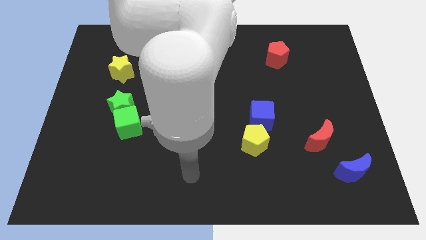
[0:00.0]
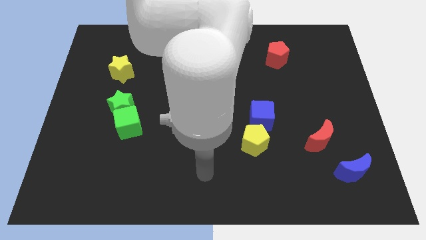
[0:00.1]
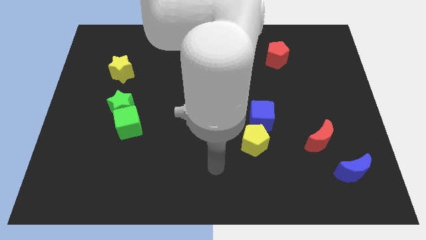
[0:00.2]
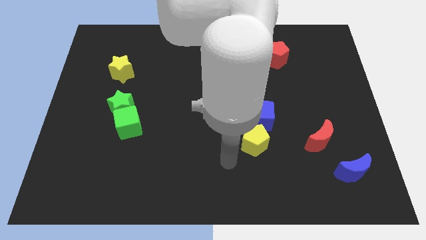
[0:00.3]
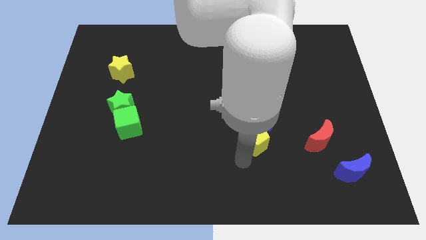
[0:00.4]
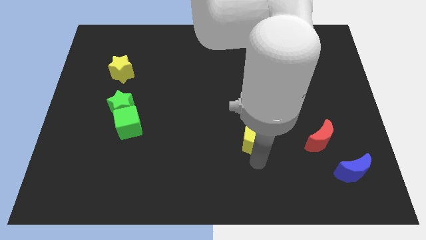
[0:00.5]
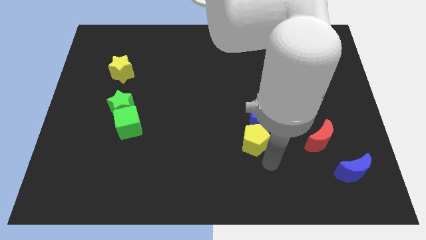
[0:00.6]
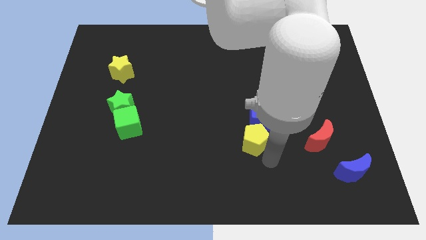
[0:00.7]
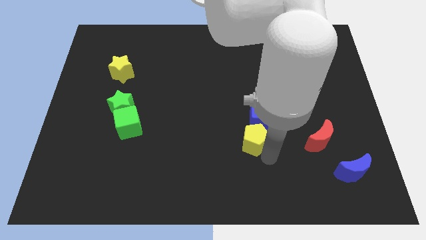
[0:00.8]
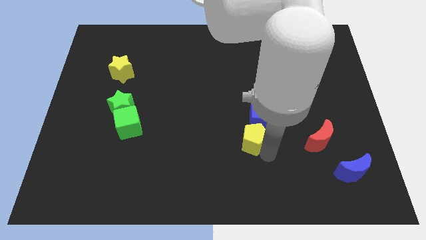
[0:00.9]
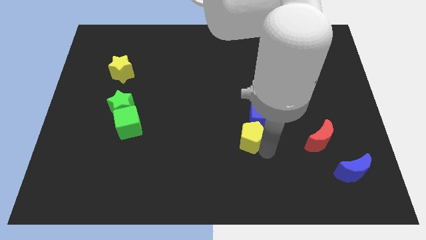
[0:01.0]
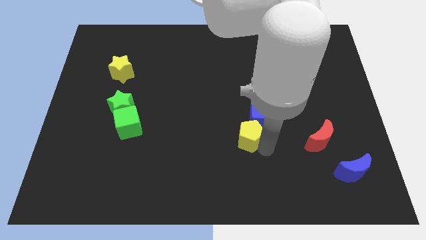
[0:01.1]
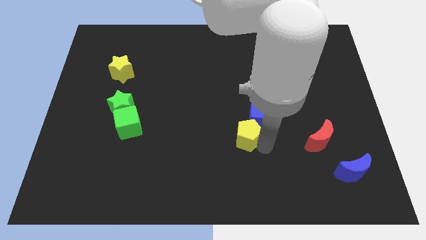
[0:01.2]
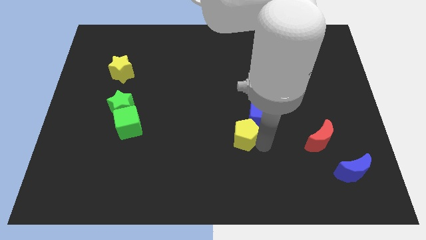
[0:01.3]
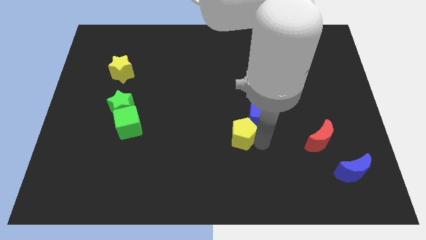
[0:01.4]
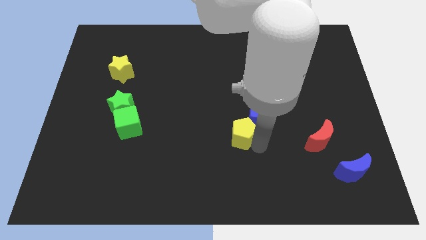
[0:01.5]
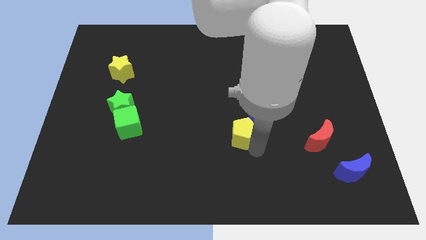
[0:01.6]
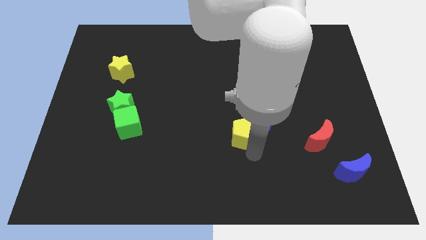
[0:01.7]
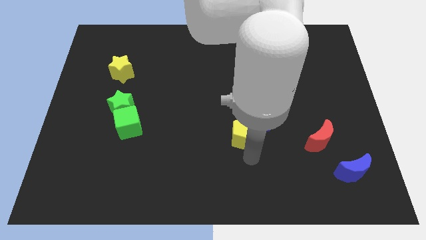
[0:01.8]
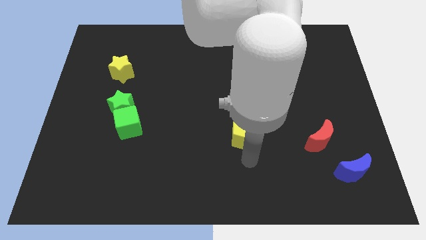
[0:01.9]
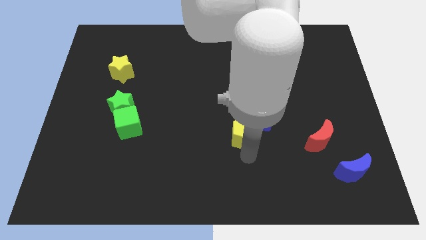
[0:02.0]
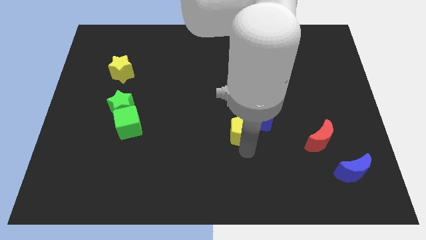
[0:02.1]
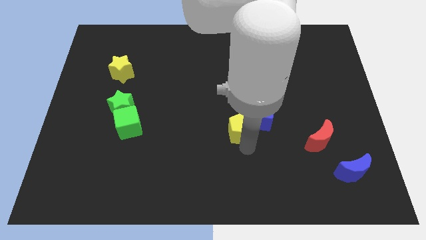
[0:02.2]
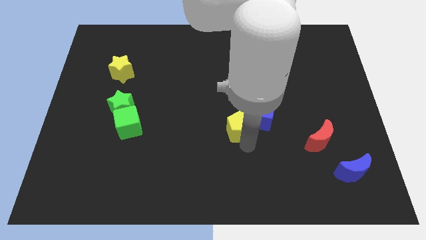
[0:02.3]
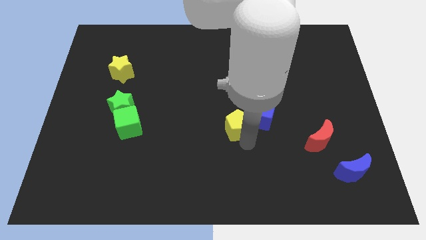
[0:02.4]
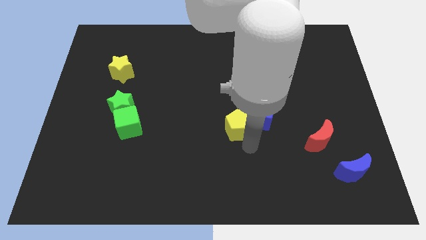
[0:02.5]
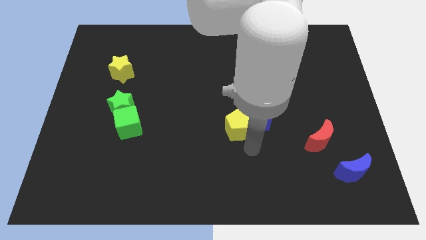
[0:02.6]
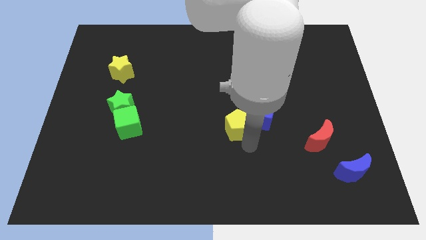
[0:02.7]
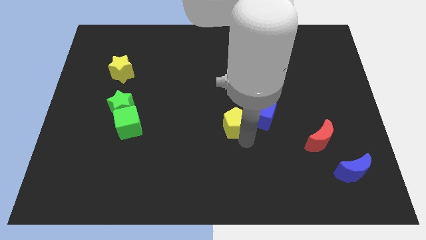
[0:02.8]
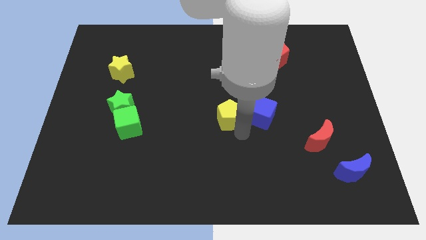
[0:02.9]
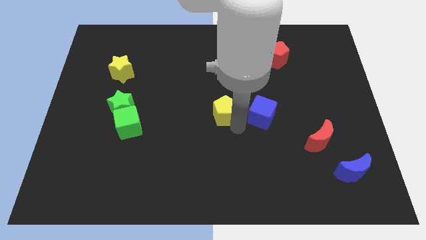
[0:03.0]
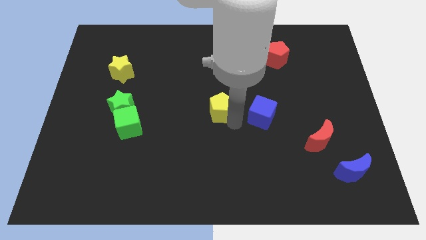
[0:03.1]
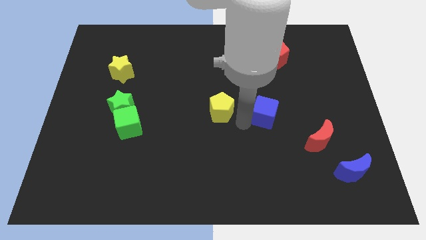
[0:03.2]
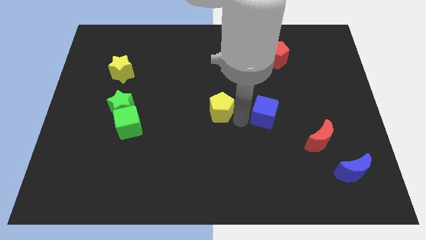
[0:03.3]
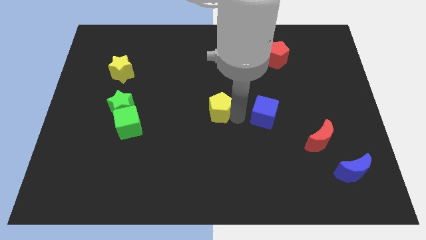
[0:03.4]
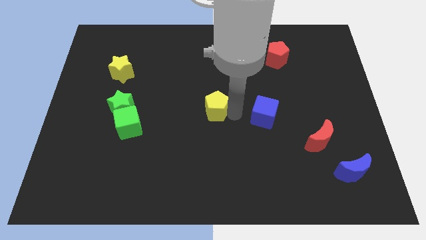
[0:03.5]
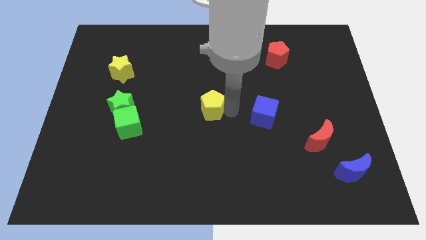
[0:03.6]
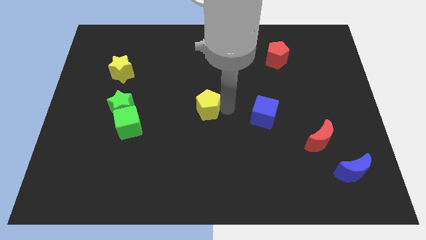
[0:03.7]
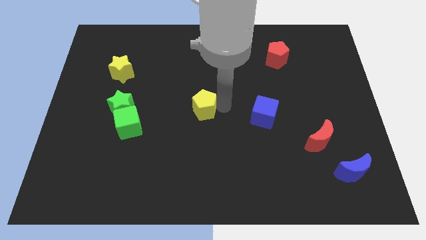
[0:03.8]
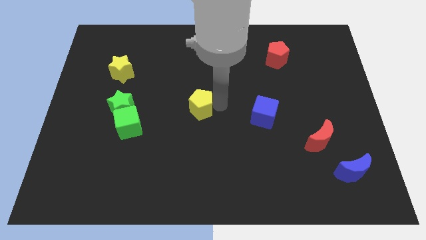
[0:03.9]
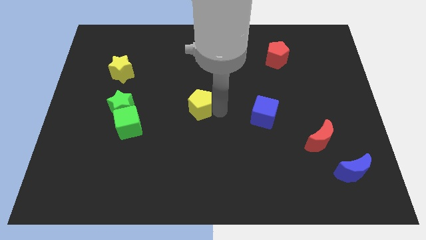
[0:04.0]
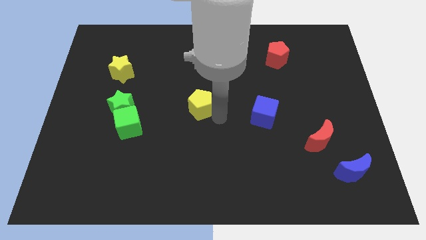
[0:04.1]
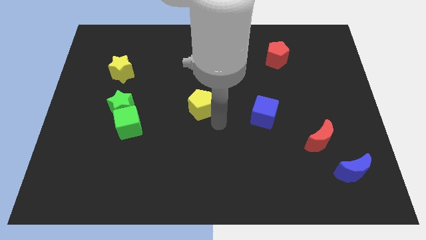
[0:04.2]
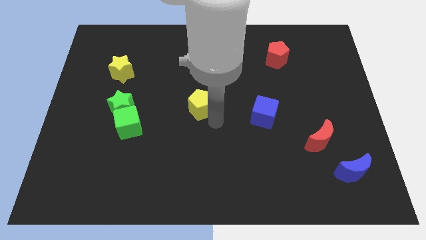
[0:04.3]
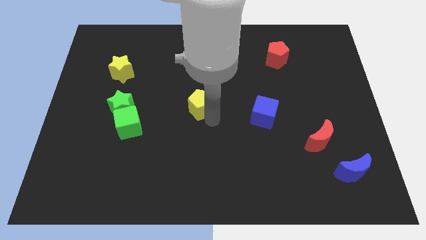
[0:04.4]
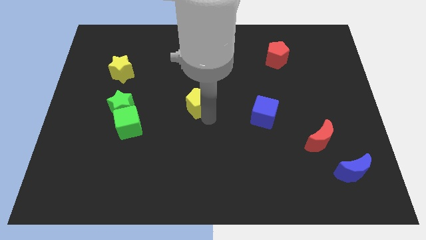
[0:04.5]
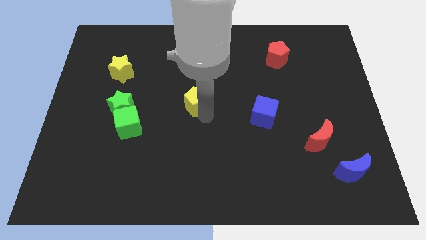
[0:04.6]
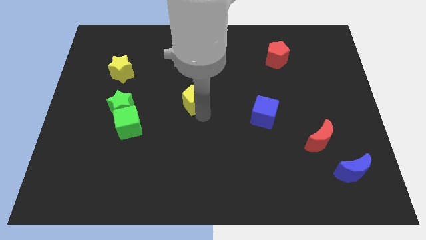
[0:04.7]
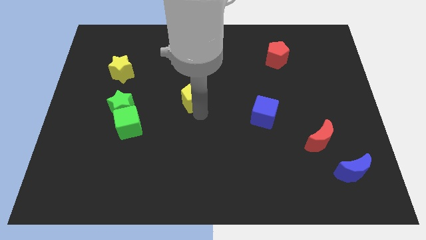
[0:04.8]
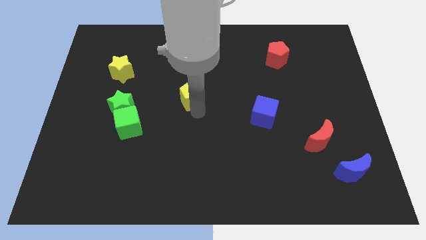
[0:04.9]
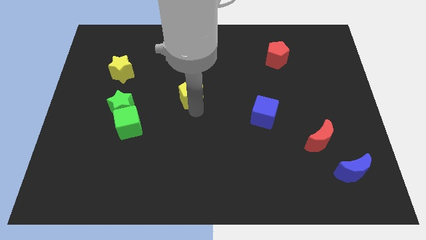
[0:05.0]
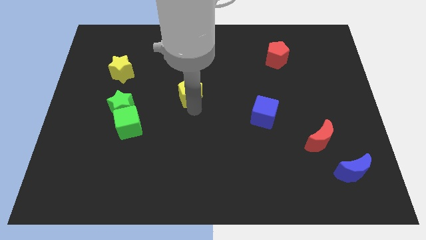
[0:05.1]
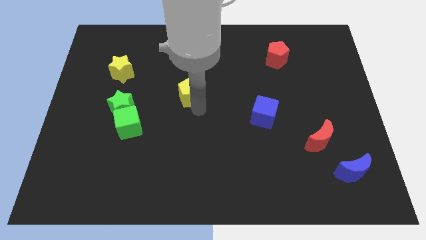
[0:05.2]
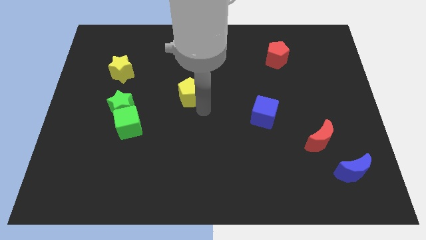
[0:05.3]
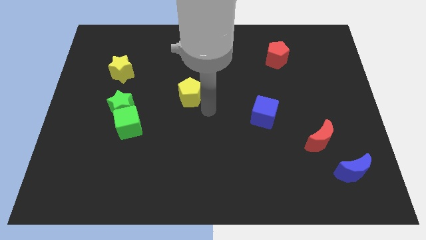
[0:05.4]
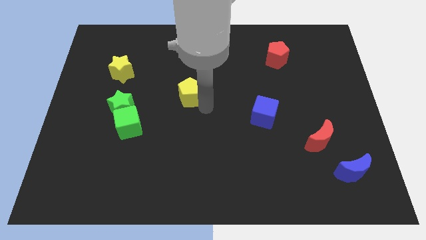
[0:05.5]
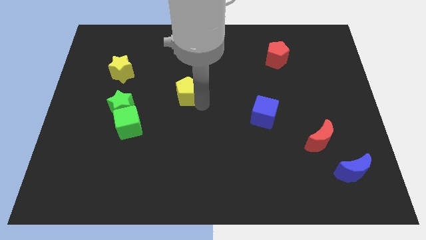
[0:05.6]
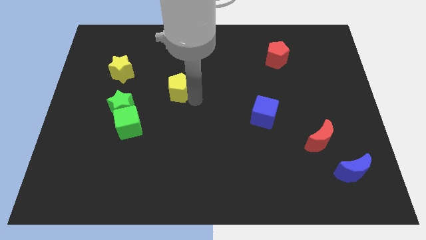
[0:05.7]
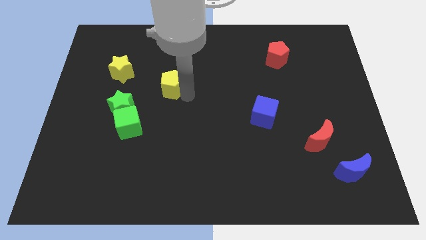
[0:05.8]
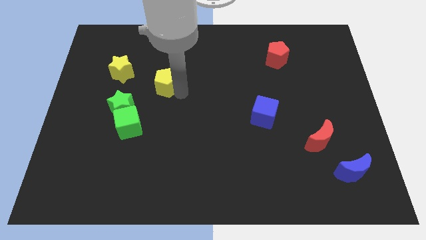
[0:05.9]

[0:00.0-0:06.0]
put the yellow pentagon to the right side of the yellow star
